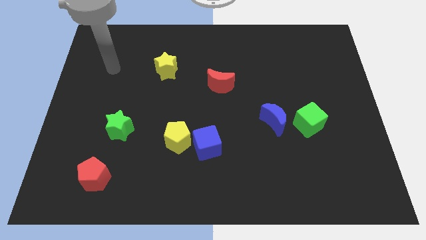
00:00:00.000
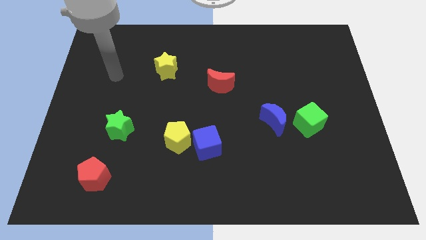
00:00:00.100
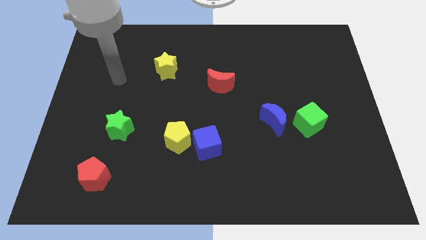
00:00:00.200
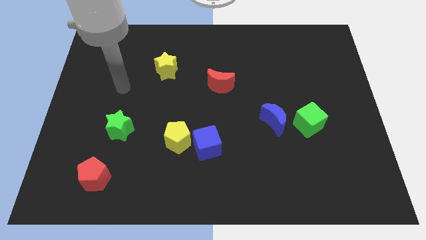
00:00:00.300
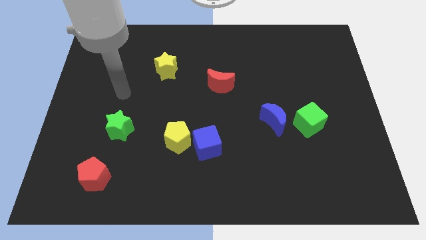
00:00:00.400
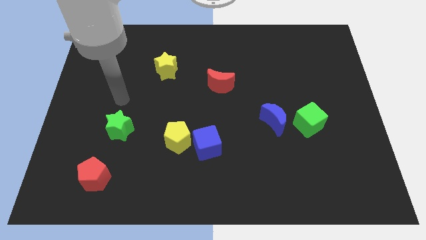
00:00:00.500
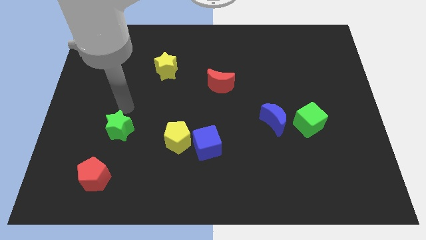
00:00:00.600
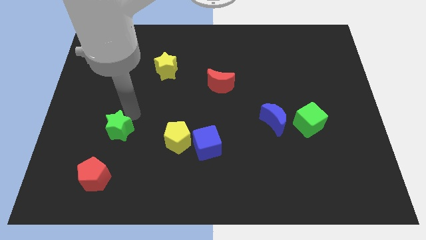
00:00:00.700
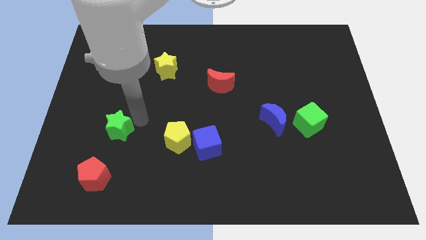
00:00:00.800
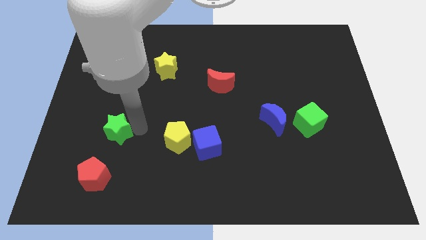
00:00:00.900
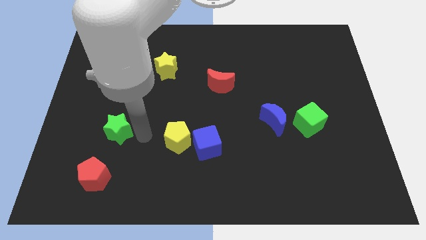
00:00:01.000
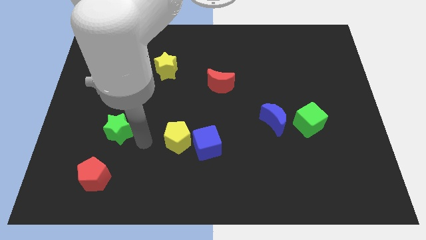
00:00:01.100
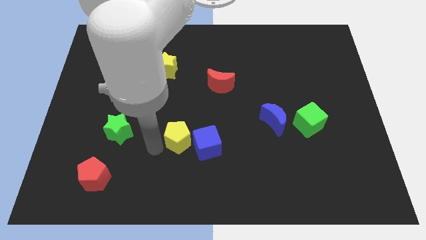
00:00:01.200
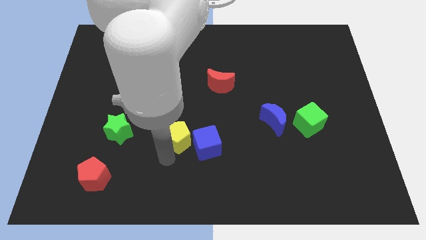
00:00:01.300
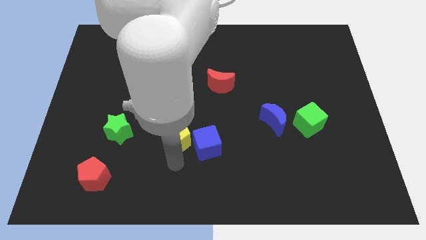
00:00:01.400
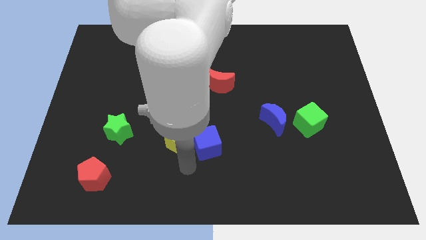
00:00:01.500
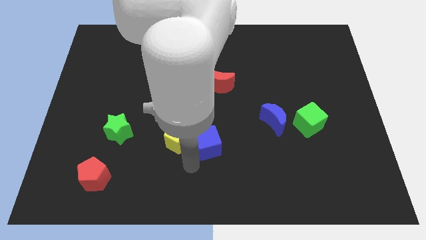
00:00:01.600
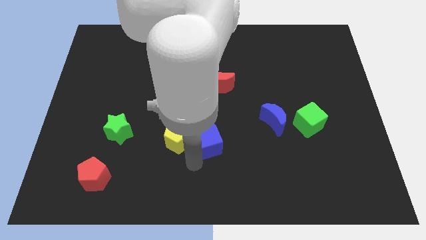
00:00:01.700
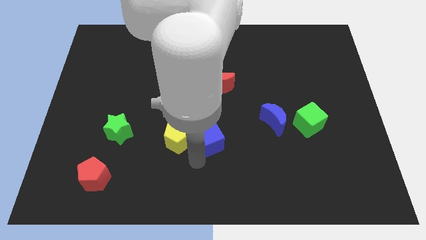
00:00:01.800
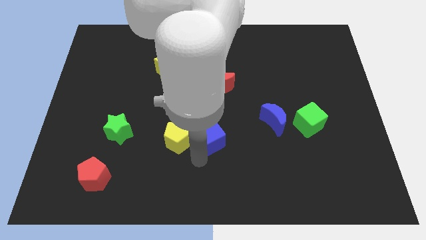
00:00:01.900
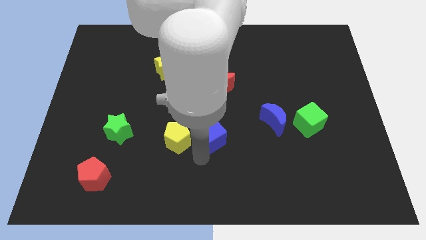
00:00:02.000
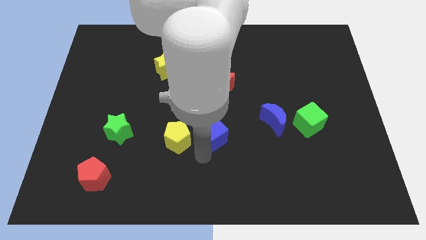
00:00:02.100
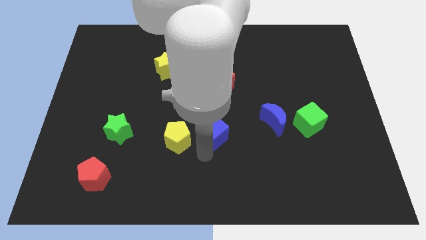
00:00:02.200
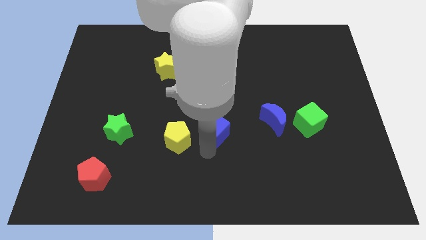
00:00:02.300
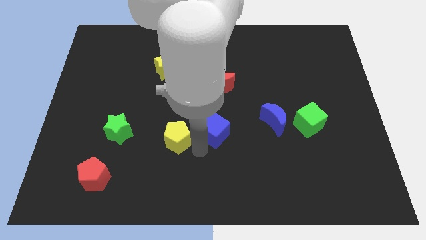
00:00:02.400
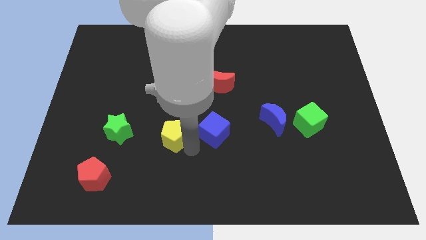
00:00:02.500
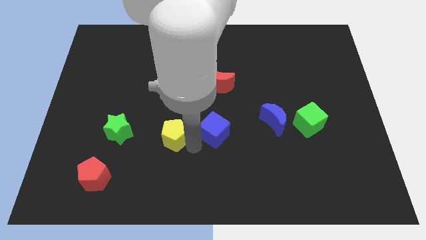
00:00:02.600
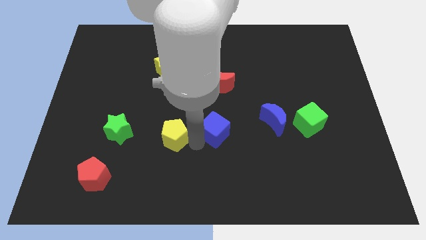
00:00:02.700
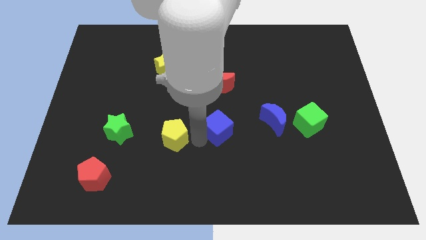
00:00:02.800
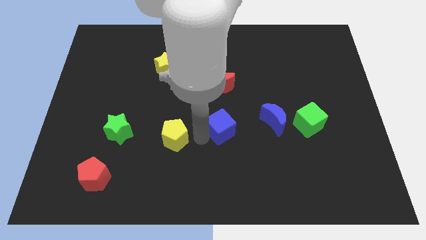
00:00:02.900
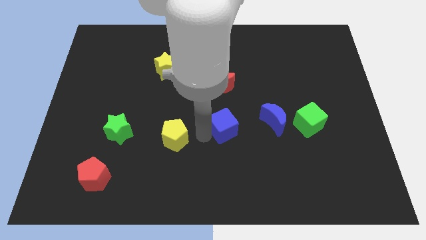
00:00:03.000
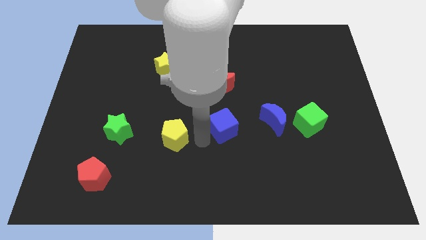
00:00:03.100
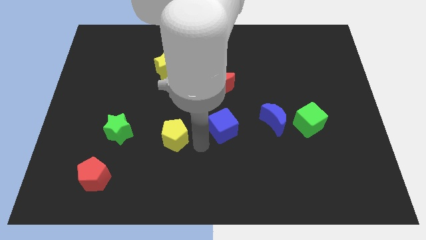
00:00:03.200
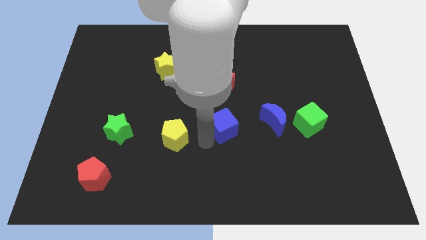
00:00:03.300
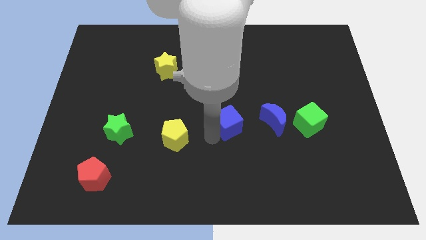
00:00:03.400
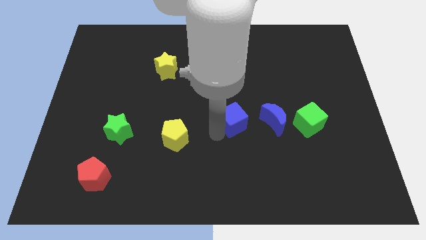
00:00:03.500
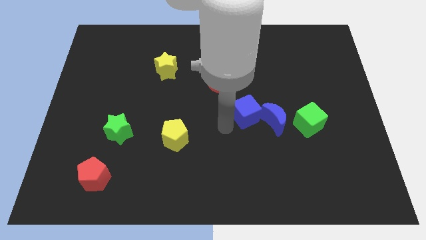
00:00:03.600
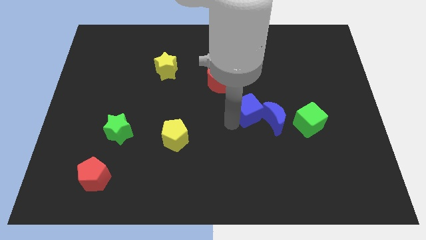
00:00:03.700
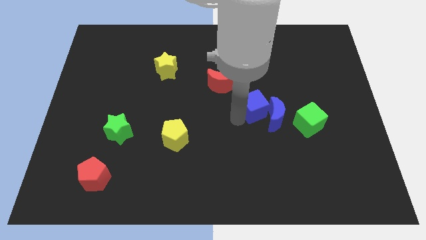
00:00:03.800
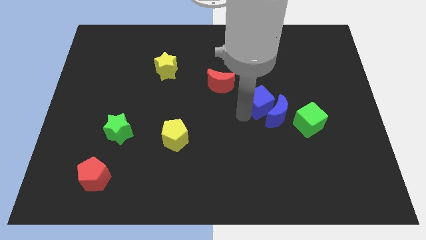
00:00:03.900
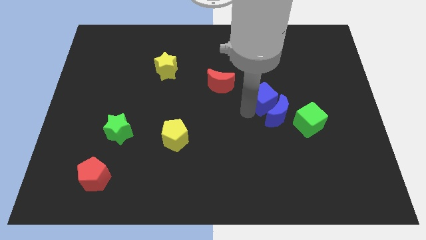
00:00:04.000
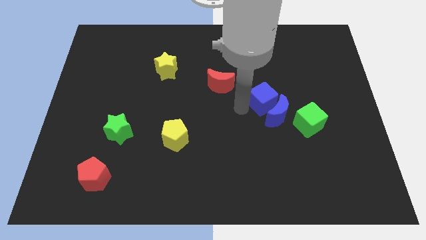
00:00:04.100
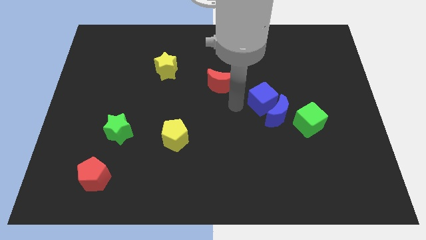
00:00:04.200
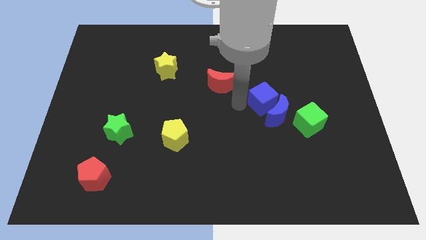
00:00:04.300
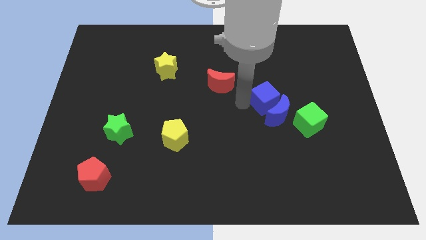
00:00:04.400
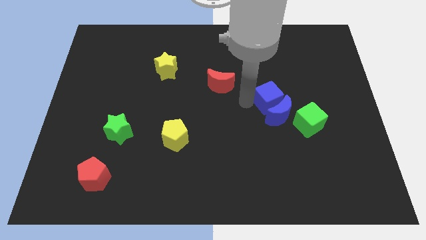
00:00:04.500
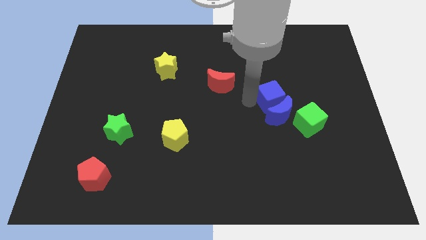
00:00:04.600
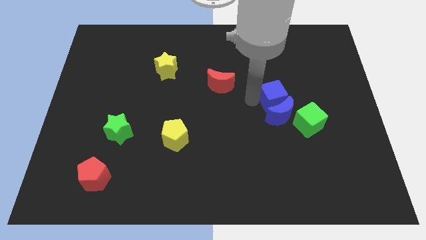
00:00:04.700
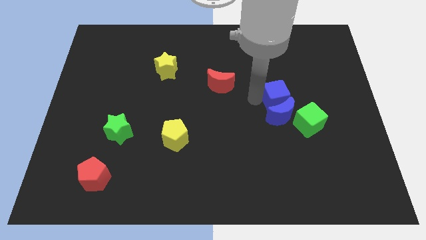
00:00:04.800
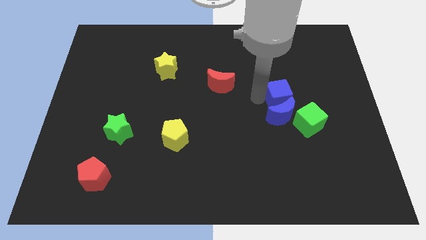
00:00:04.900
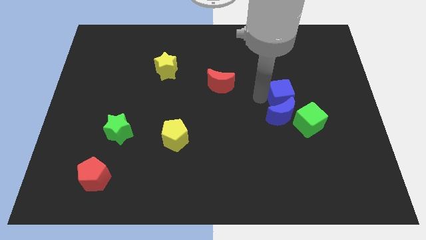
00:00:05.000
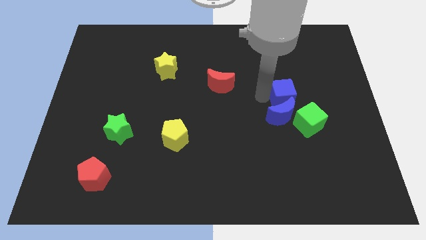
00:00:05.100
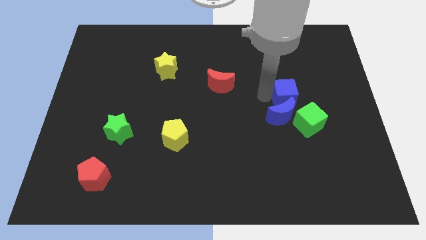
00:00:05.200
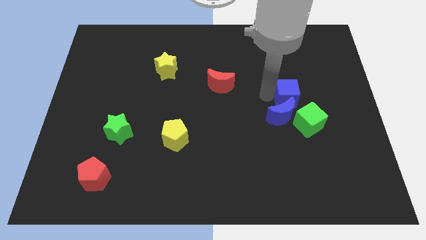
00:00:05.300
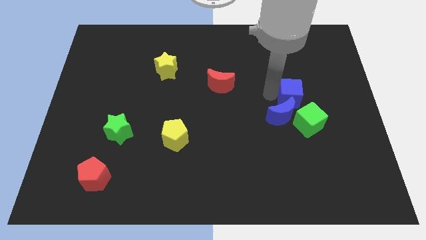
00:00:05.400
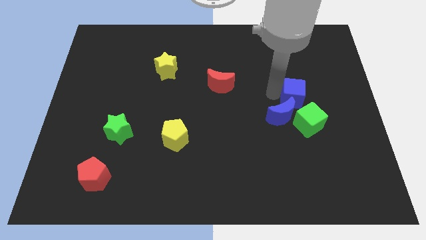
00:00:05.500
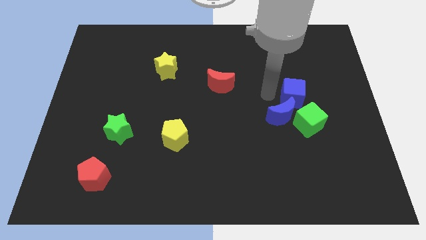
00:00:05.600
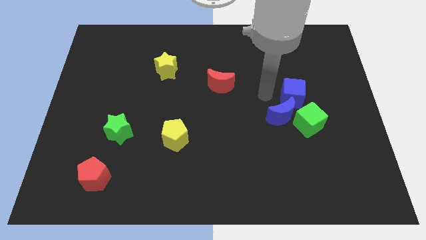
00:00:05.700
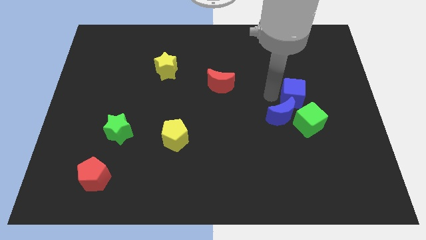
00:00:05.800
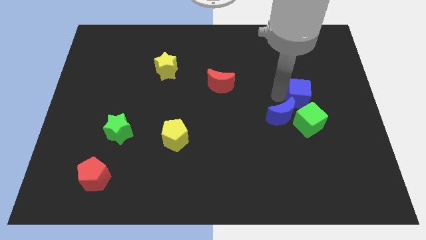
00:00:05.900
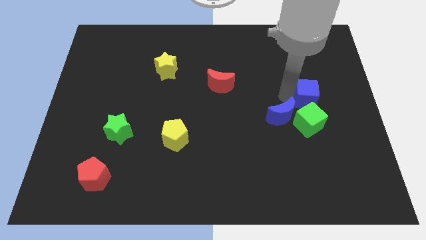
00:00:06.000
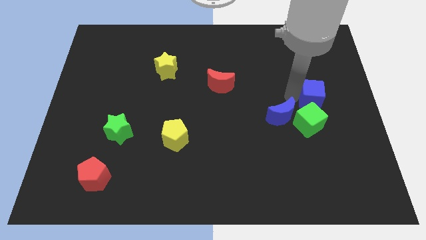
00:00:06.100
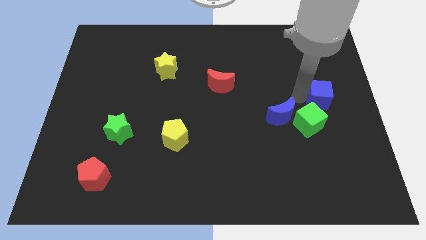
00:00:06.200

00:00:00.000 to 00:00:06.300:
put the blue cube to the right side of the board

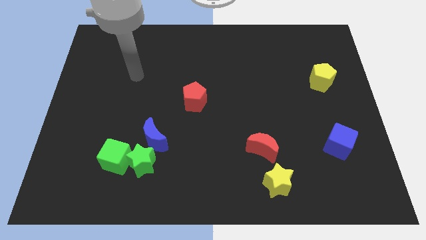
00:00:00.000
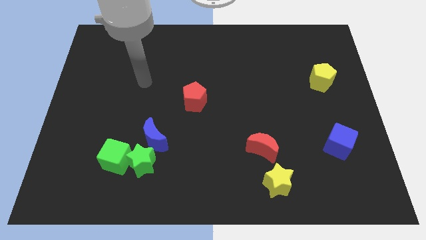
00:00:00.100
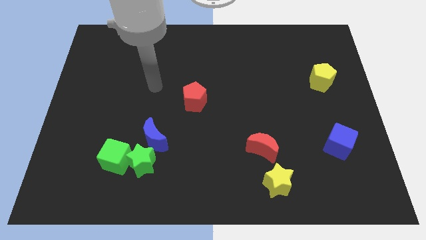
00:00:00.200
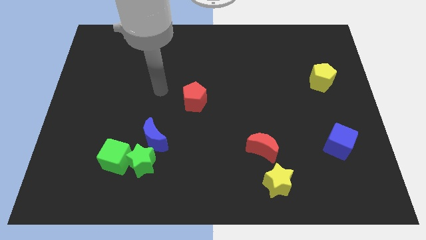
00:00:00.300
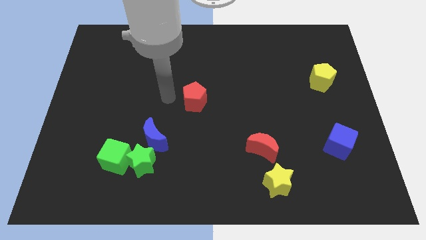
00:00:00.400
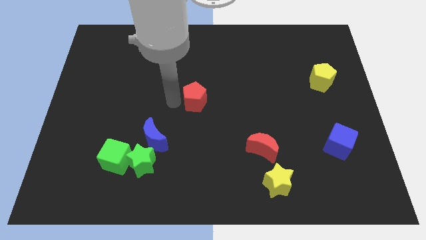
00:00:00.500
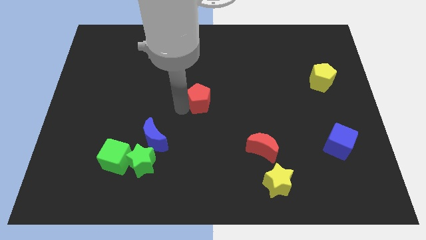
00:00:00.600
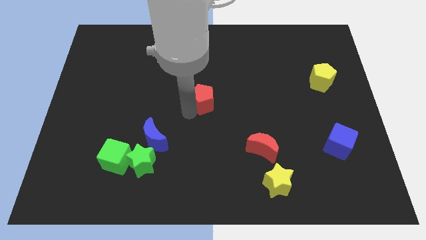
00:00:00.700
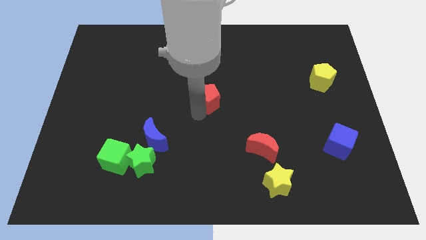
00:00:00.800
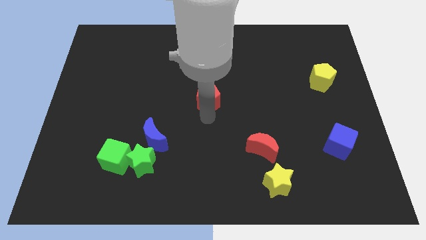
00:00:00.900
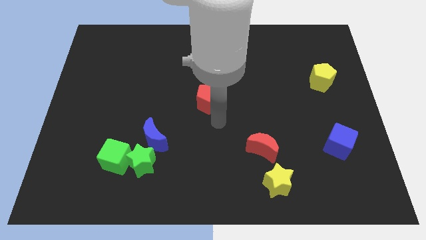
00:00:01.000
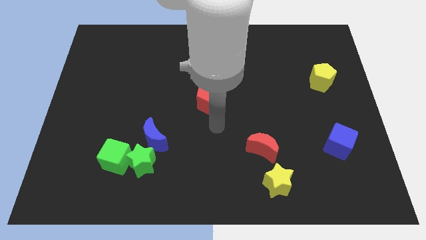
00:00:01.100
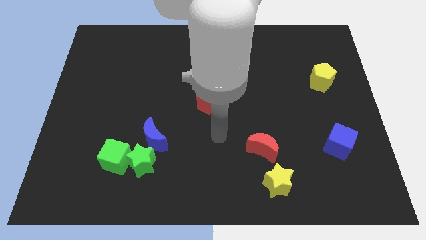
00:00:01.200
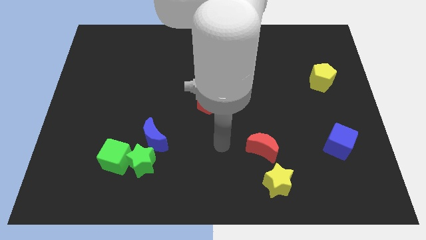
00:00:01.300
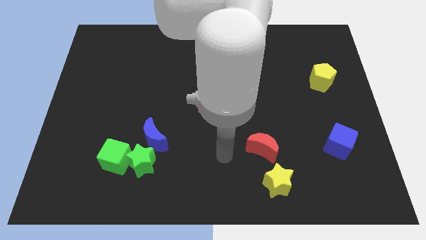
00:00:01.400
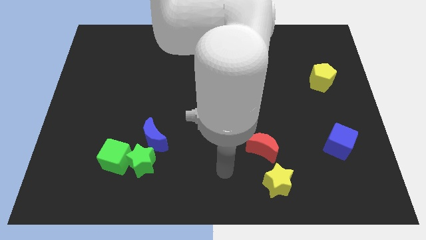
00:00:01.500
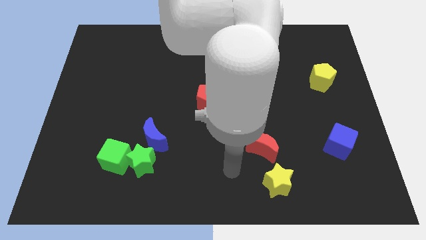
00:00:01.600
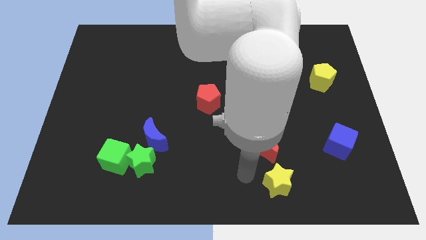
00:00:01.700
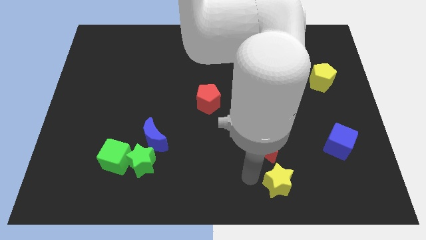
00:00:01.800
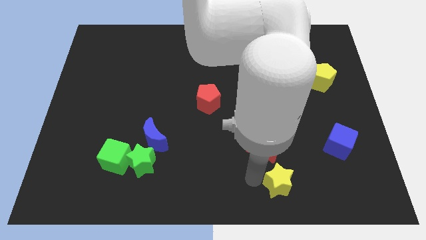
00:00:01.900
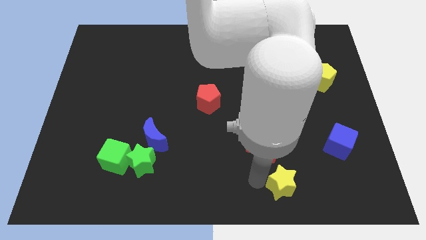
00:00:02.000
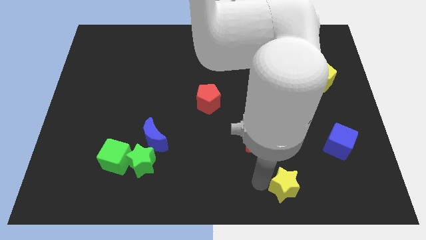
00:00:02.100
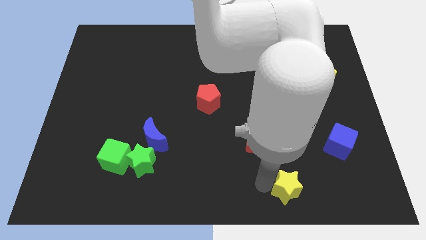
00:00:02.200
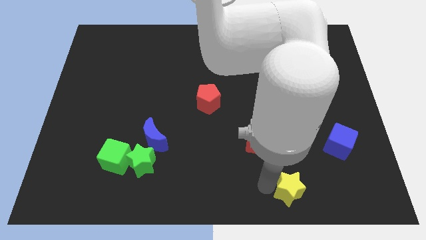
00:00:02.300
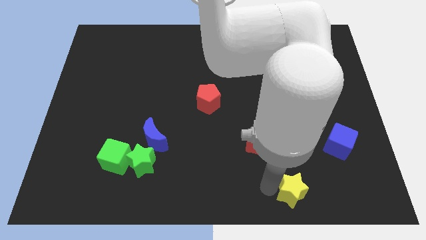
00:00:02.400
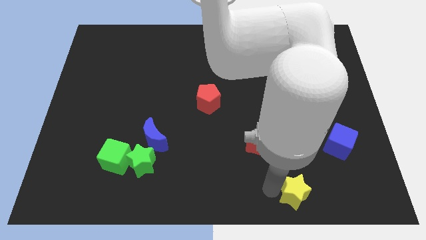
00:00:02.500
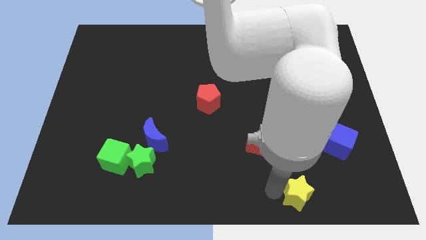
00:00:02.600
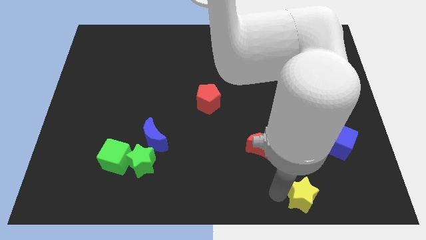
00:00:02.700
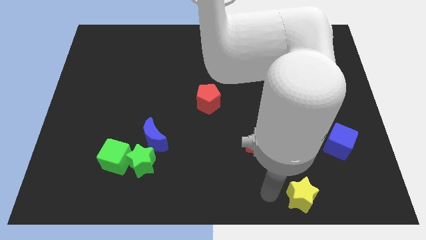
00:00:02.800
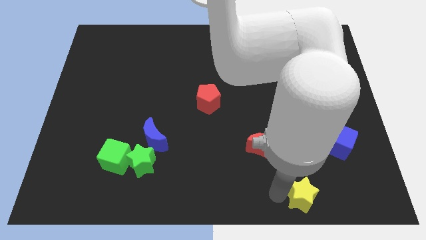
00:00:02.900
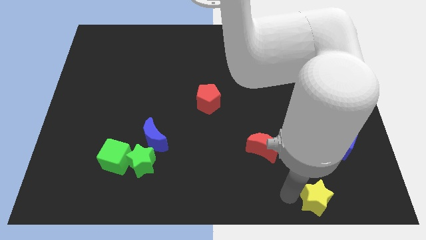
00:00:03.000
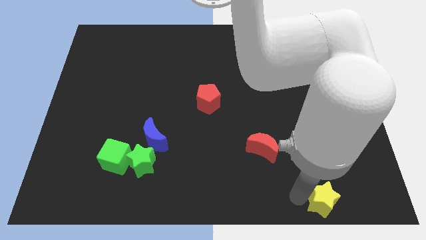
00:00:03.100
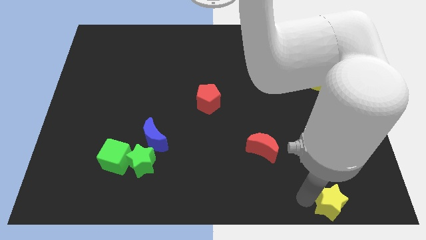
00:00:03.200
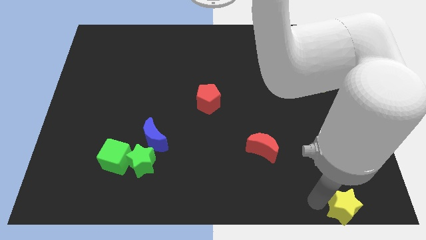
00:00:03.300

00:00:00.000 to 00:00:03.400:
put the yellow star to the bottom right of the board
